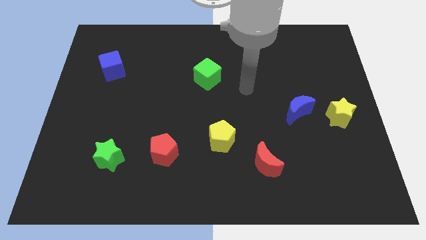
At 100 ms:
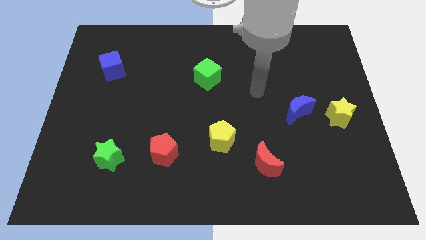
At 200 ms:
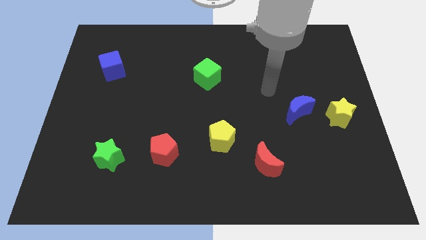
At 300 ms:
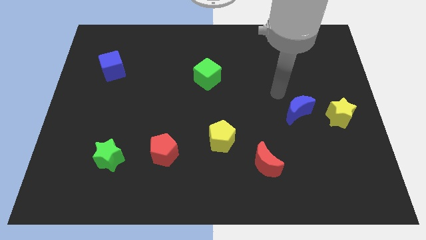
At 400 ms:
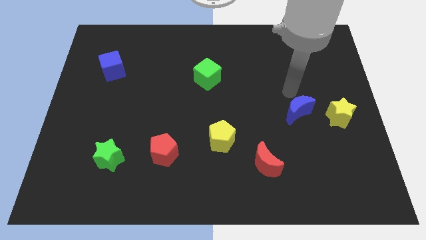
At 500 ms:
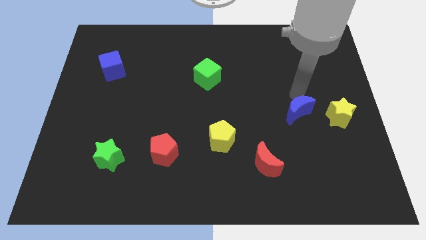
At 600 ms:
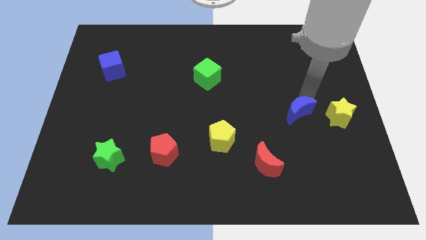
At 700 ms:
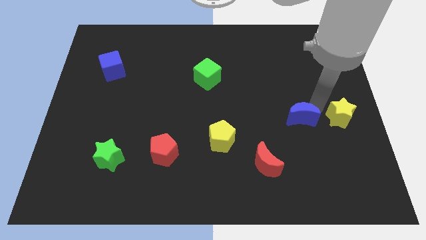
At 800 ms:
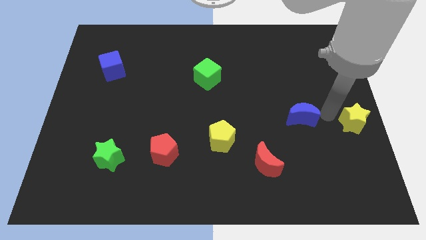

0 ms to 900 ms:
separate the blue moon from the yellow star

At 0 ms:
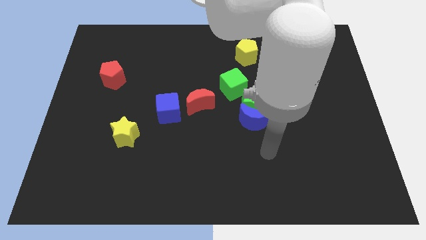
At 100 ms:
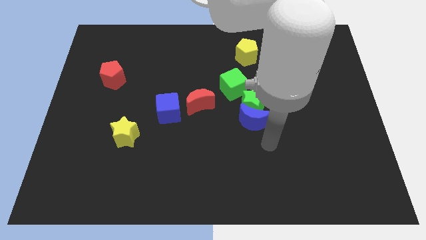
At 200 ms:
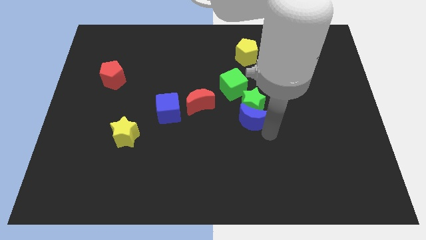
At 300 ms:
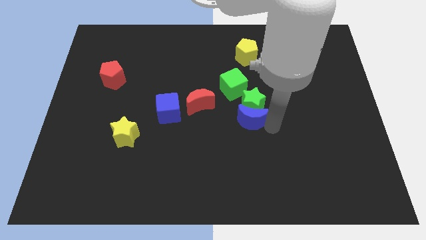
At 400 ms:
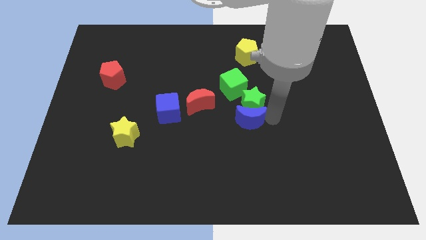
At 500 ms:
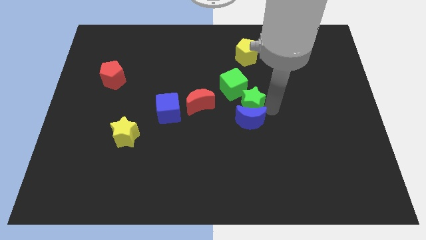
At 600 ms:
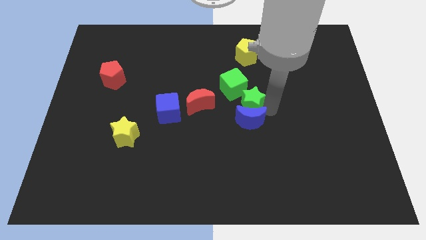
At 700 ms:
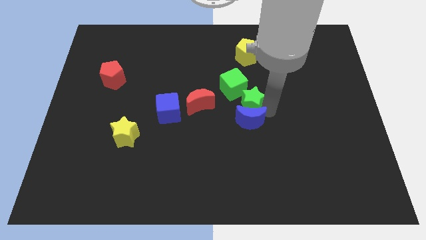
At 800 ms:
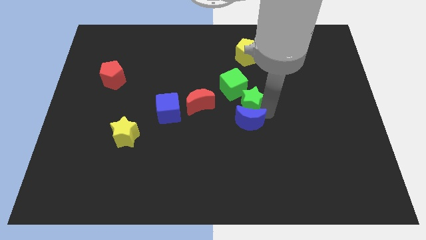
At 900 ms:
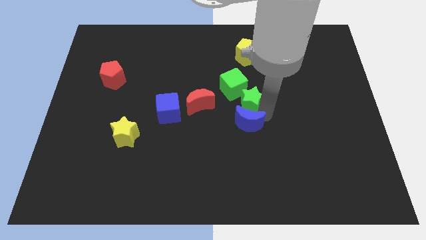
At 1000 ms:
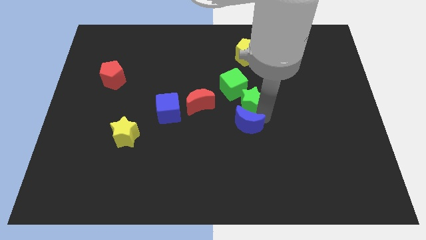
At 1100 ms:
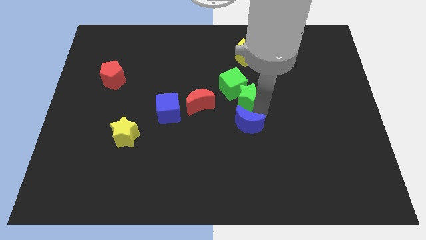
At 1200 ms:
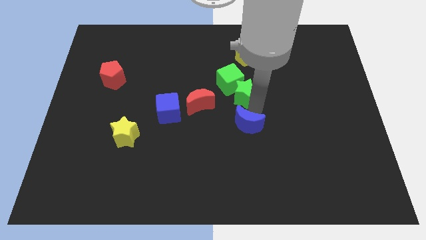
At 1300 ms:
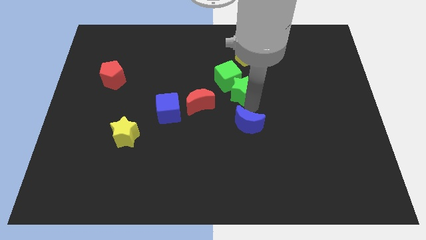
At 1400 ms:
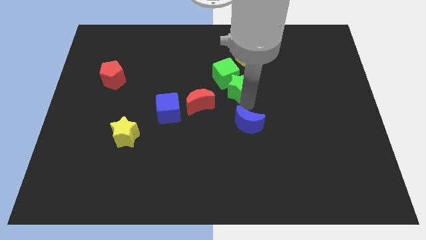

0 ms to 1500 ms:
pull the blue moon apart from the green star

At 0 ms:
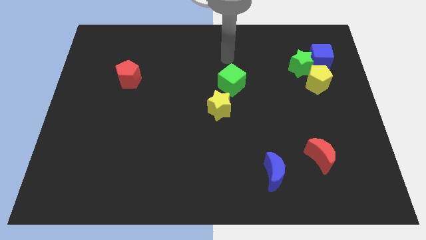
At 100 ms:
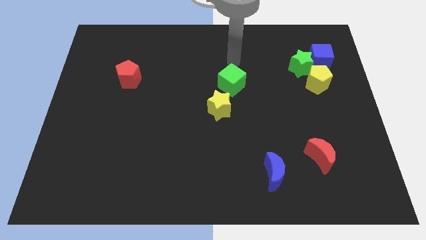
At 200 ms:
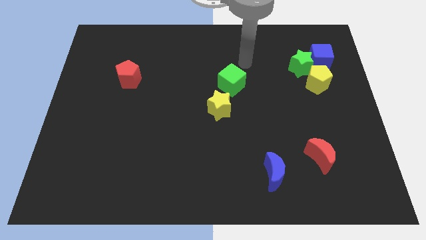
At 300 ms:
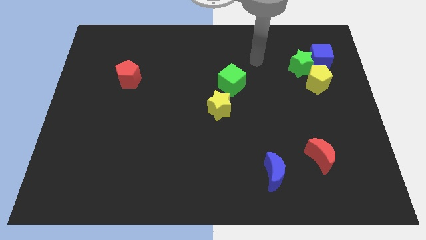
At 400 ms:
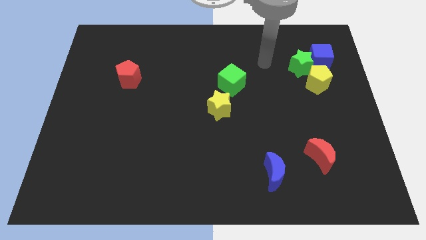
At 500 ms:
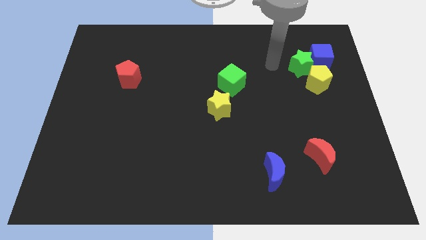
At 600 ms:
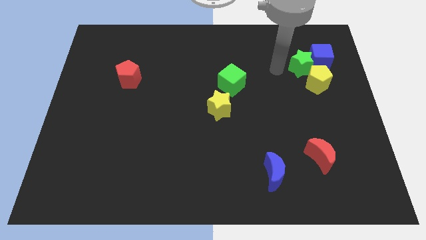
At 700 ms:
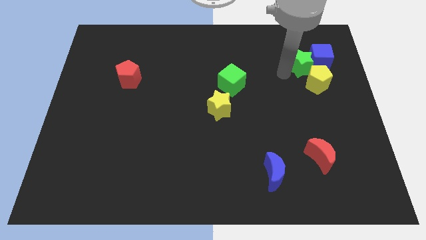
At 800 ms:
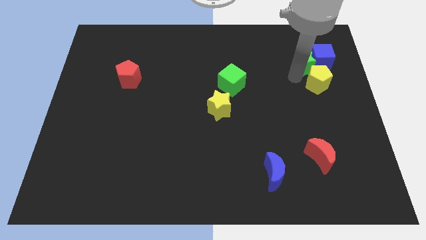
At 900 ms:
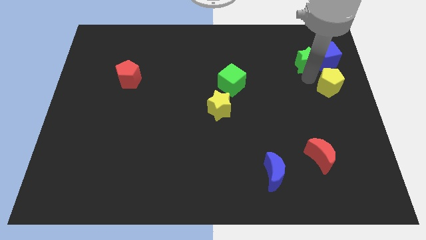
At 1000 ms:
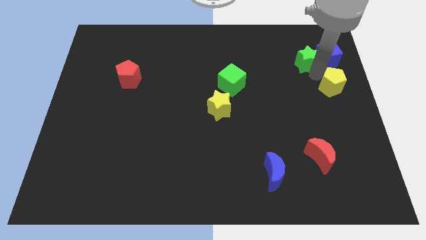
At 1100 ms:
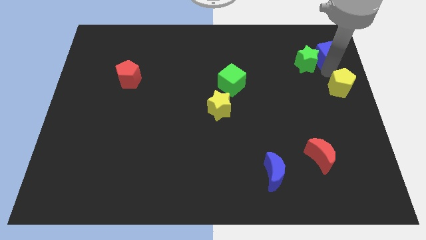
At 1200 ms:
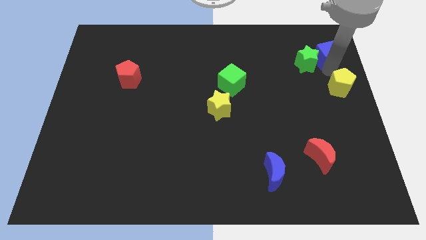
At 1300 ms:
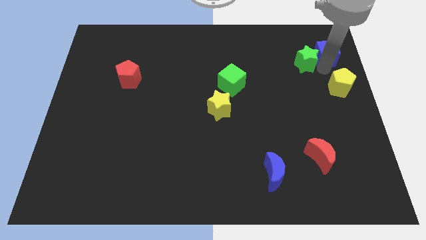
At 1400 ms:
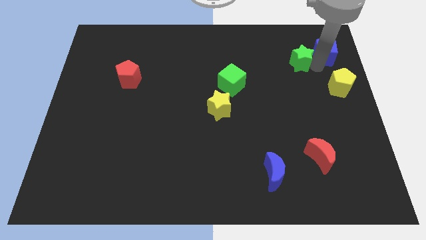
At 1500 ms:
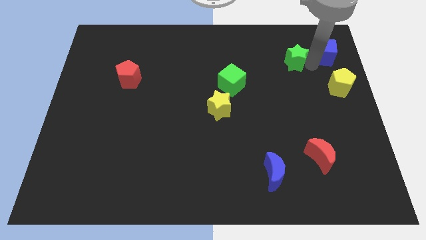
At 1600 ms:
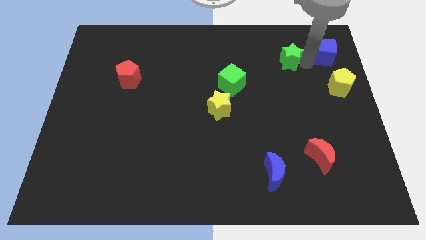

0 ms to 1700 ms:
separate the green star from the blue cube and yellow pentagon

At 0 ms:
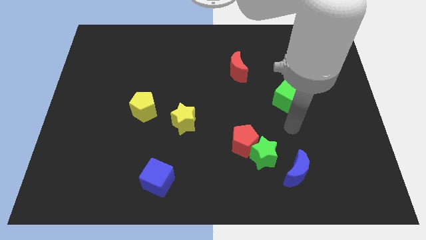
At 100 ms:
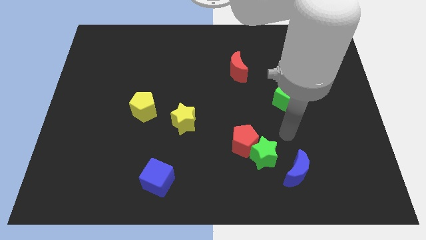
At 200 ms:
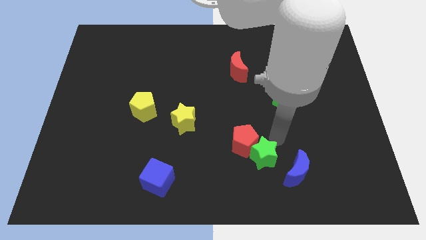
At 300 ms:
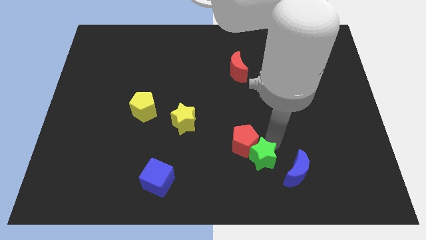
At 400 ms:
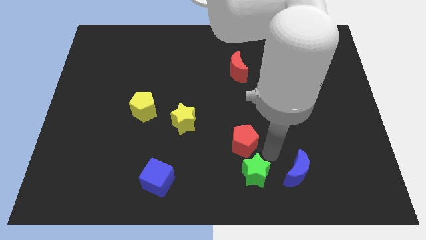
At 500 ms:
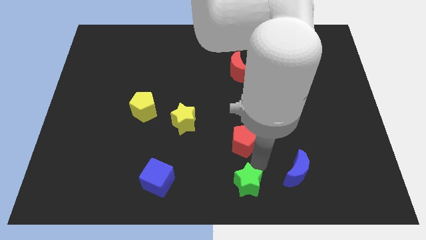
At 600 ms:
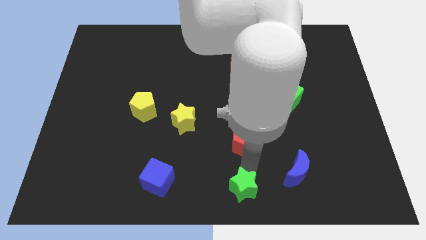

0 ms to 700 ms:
pull the red pentagon apart from the green star

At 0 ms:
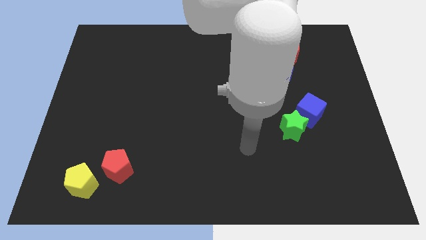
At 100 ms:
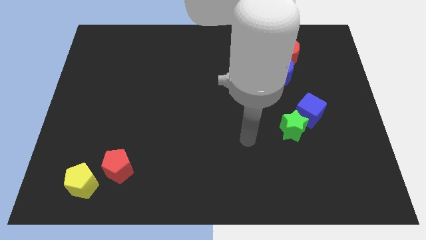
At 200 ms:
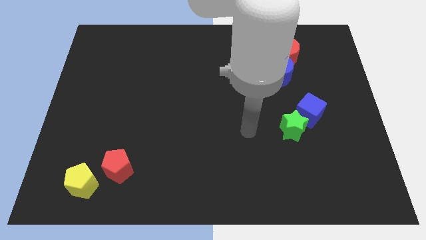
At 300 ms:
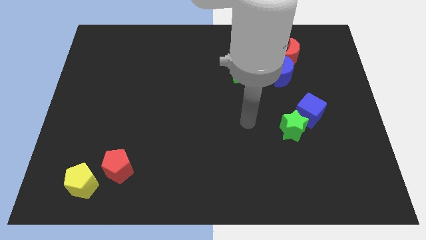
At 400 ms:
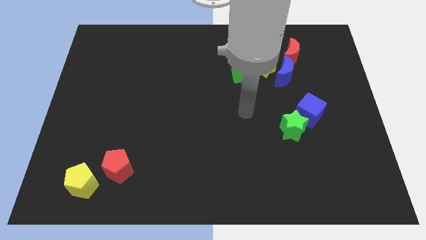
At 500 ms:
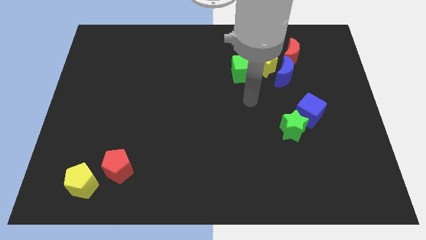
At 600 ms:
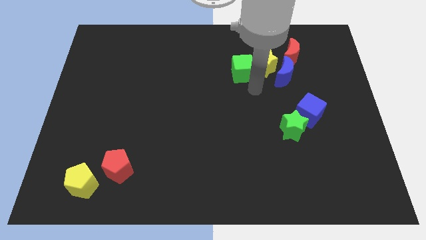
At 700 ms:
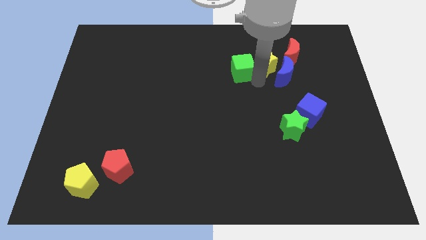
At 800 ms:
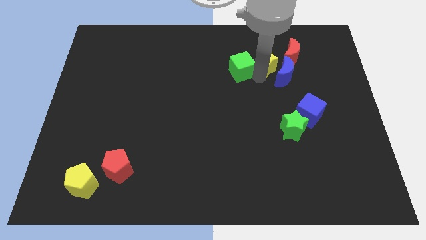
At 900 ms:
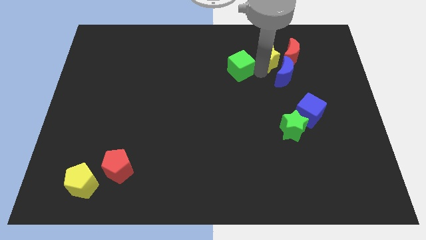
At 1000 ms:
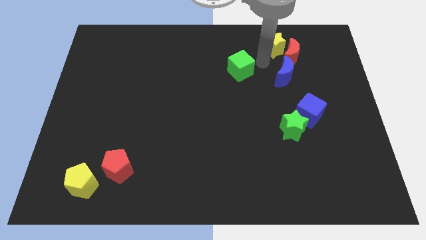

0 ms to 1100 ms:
move the green cube away from the yellow star

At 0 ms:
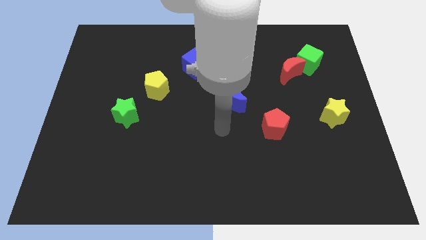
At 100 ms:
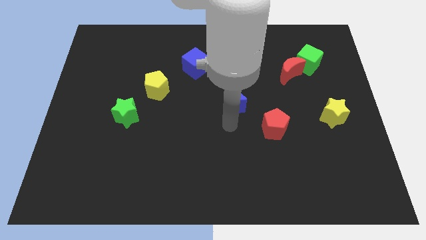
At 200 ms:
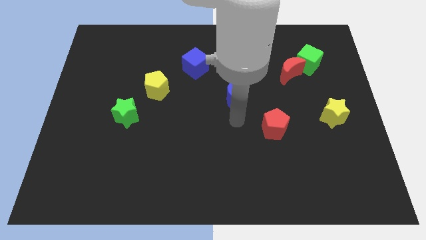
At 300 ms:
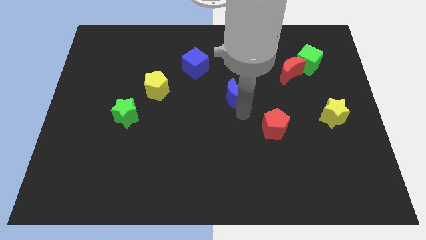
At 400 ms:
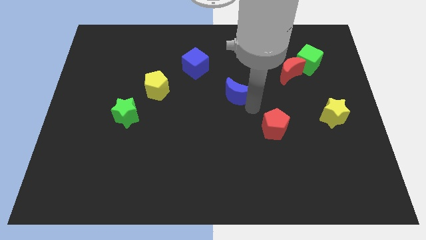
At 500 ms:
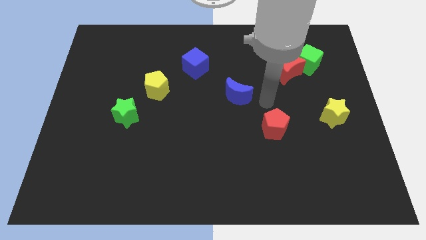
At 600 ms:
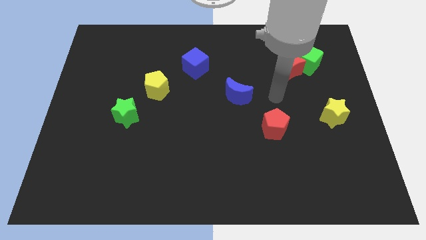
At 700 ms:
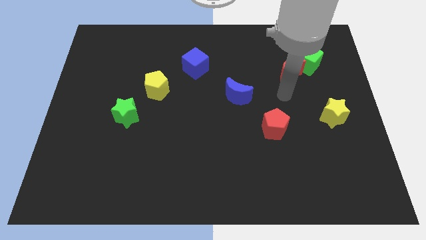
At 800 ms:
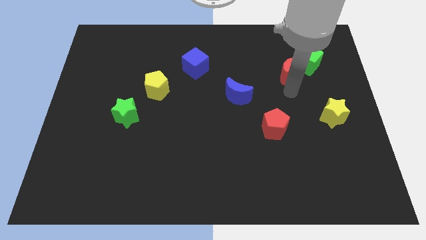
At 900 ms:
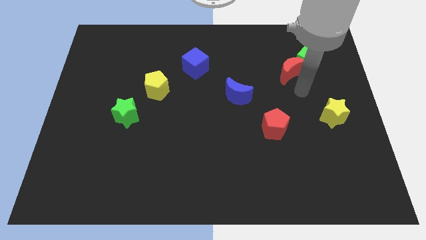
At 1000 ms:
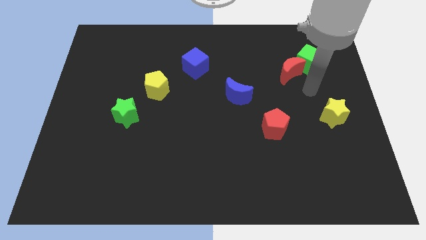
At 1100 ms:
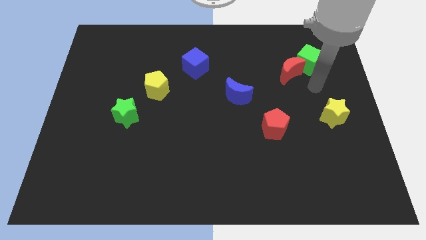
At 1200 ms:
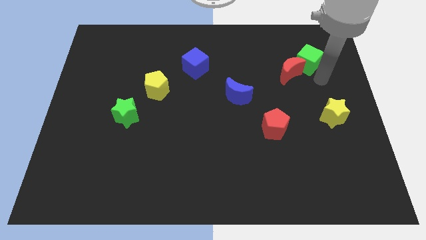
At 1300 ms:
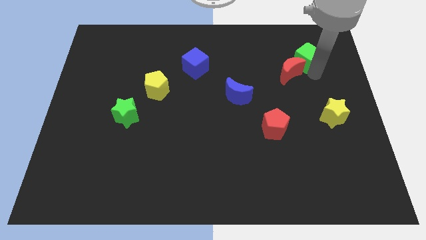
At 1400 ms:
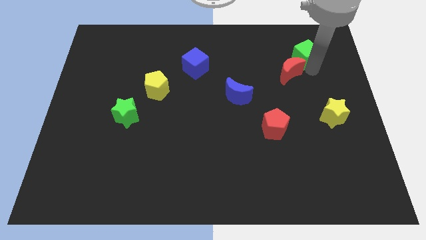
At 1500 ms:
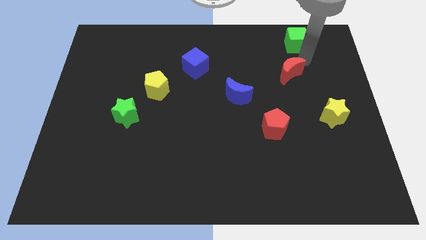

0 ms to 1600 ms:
pull the red moon apart from the green cube

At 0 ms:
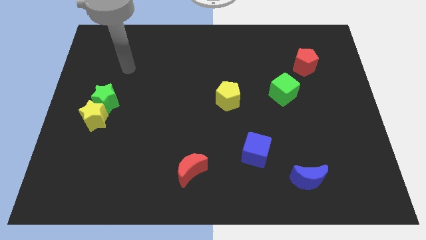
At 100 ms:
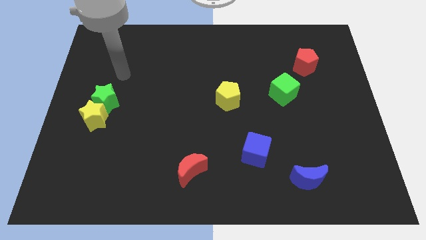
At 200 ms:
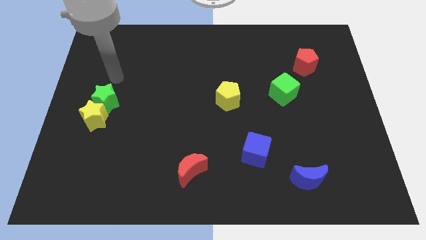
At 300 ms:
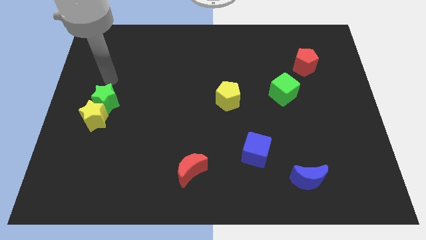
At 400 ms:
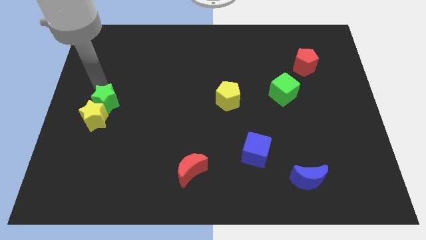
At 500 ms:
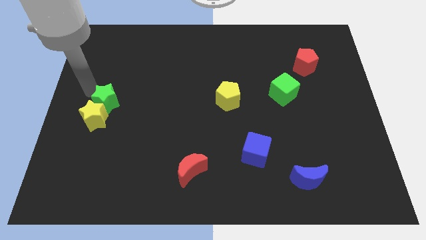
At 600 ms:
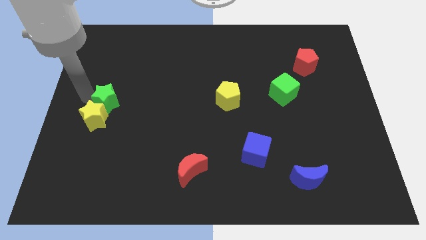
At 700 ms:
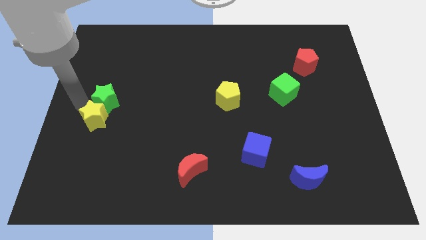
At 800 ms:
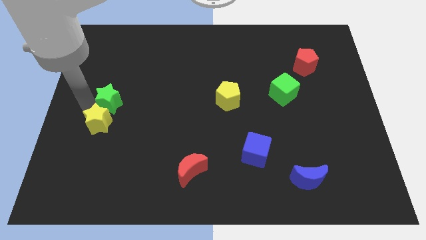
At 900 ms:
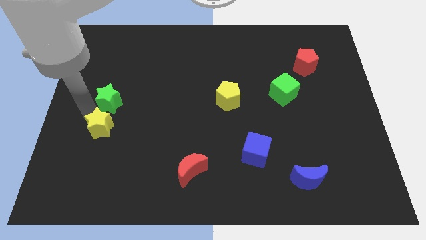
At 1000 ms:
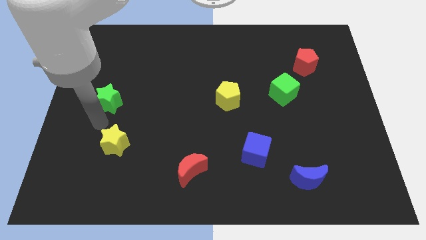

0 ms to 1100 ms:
separate the green star from the yellow star

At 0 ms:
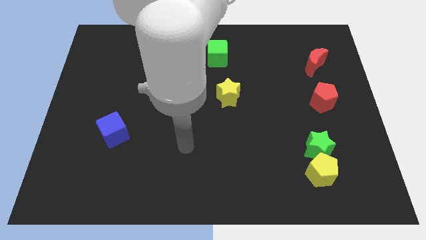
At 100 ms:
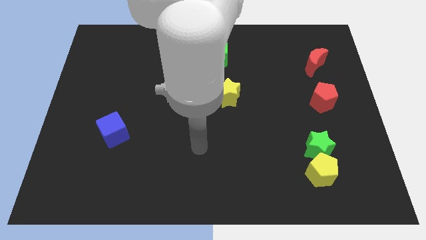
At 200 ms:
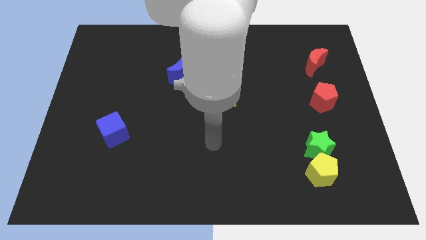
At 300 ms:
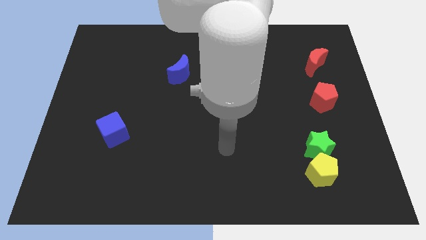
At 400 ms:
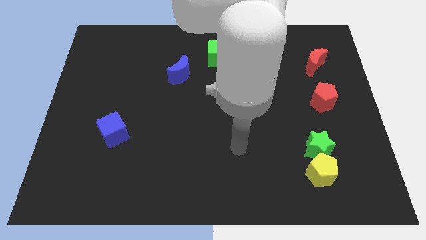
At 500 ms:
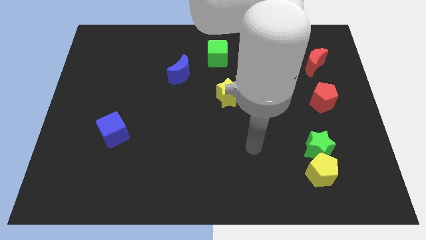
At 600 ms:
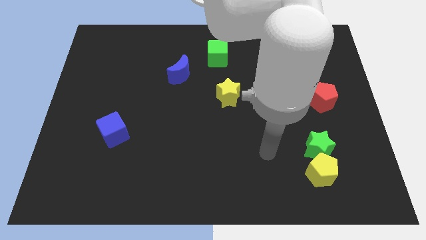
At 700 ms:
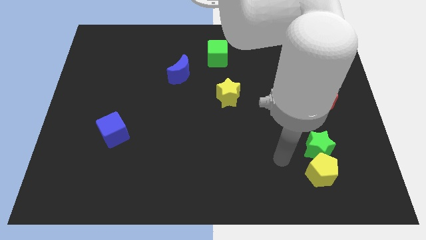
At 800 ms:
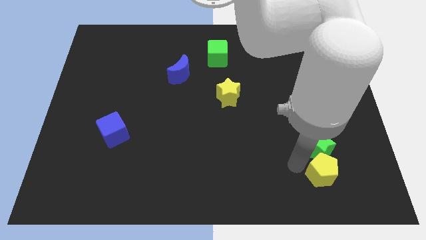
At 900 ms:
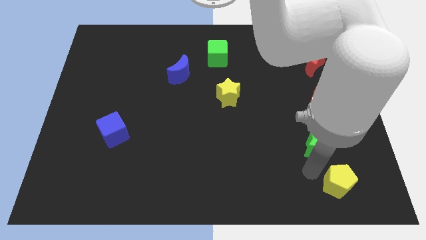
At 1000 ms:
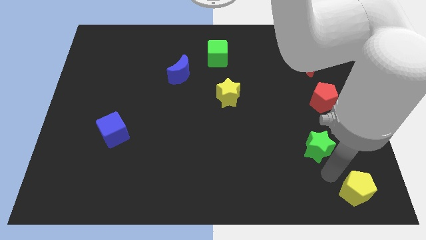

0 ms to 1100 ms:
pull the green star apart from the yellow pentagon
